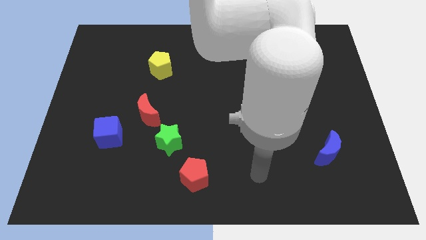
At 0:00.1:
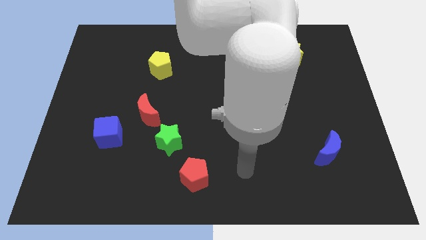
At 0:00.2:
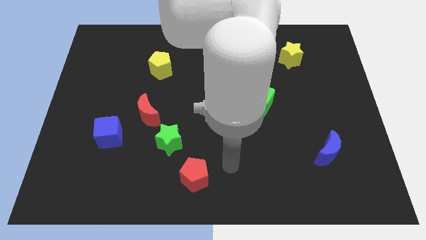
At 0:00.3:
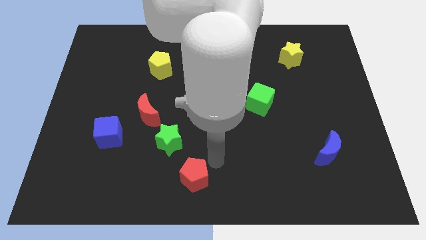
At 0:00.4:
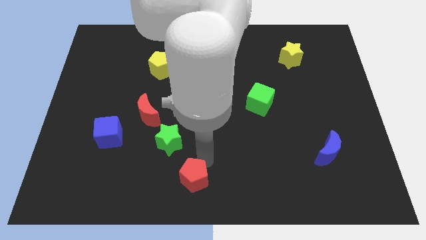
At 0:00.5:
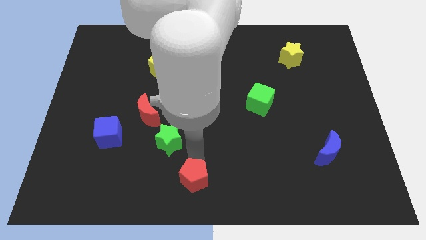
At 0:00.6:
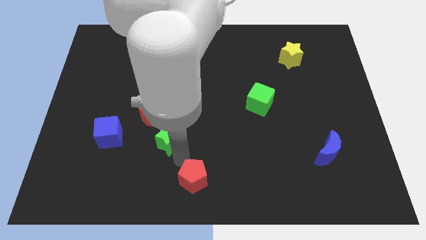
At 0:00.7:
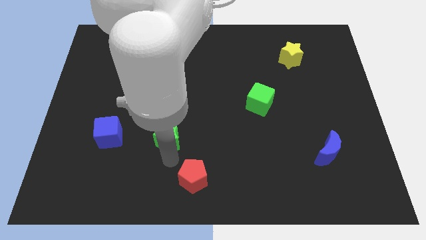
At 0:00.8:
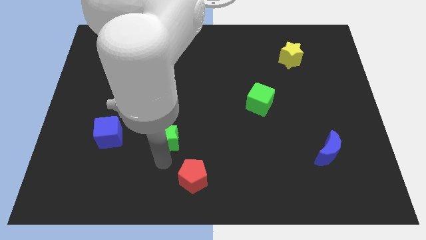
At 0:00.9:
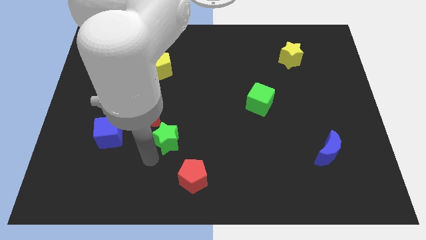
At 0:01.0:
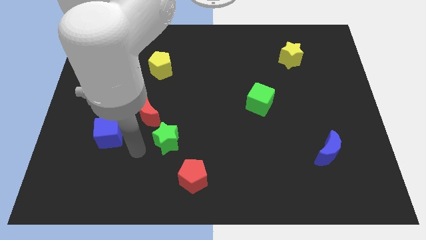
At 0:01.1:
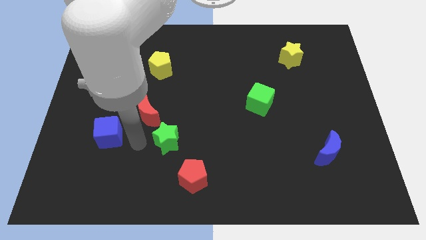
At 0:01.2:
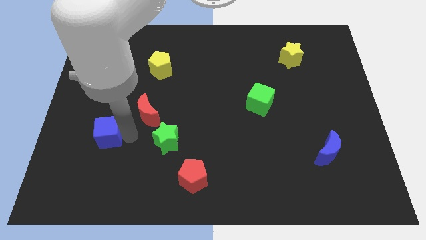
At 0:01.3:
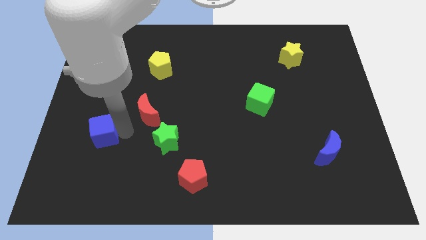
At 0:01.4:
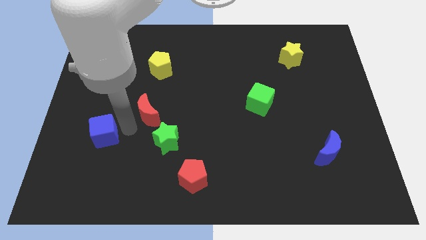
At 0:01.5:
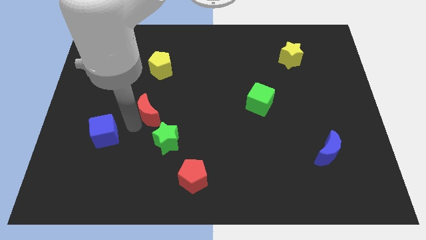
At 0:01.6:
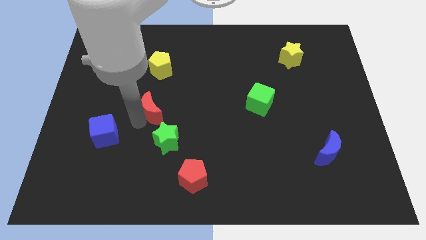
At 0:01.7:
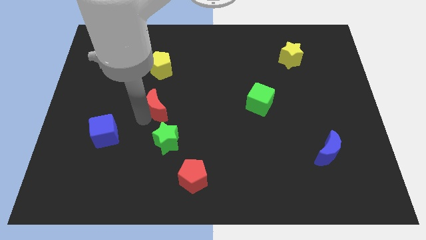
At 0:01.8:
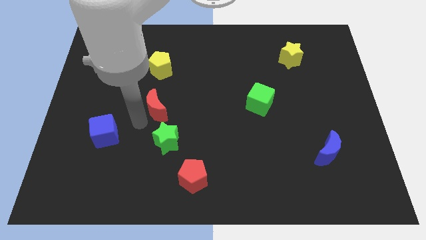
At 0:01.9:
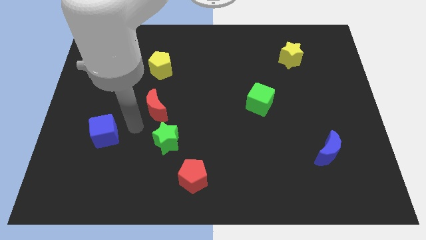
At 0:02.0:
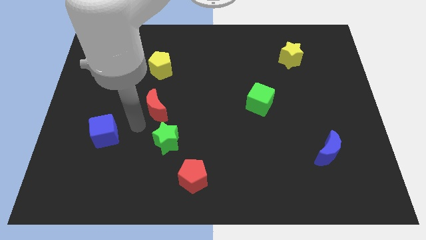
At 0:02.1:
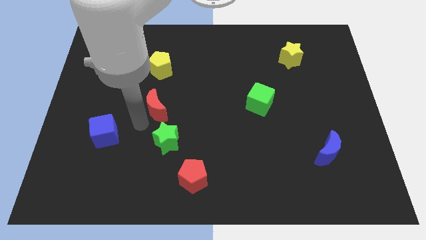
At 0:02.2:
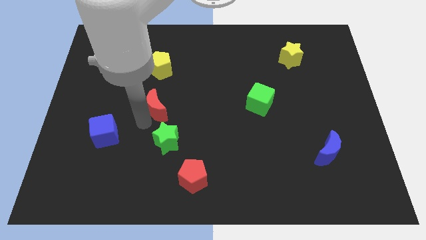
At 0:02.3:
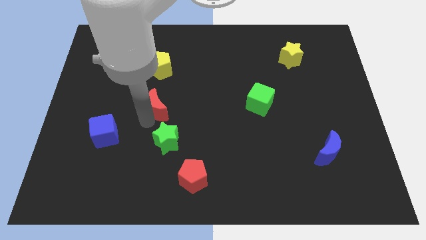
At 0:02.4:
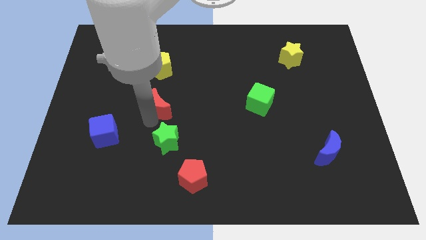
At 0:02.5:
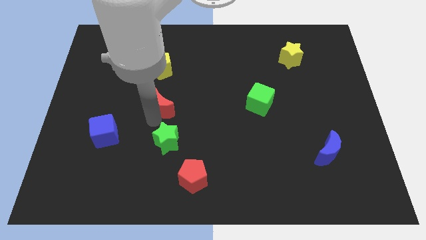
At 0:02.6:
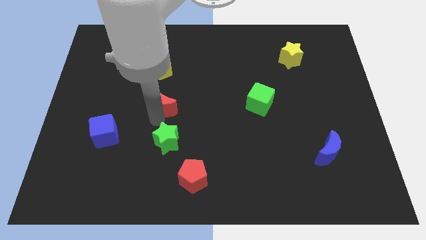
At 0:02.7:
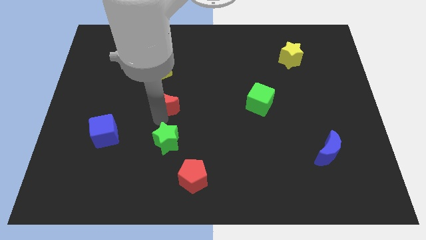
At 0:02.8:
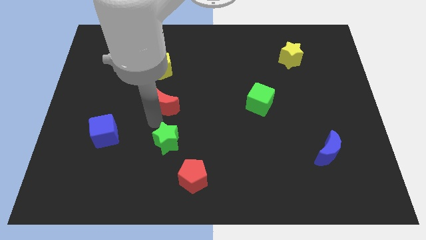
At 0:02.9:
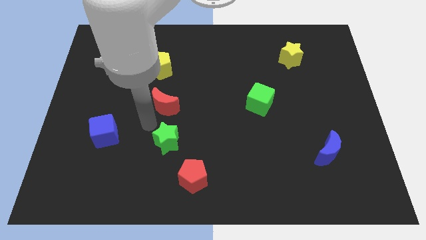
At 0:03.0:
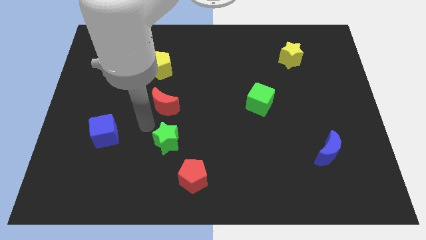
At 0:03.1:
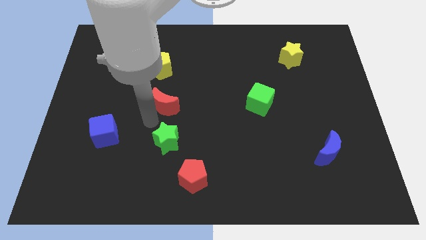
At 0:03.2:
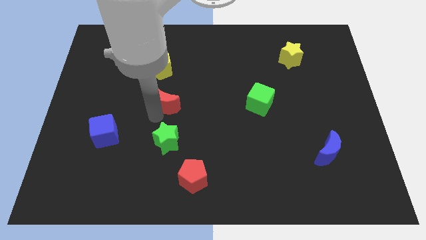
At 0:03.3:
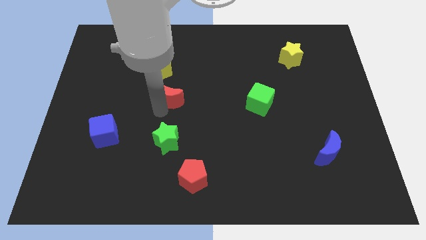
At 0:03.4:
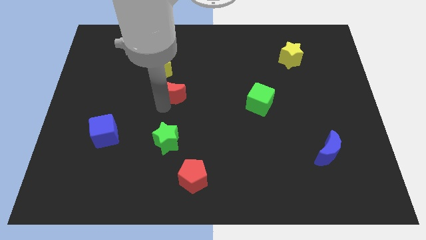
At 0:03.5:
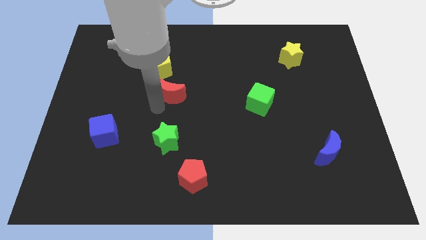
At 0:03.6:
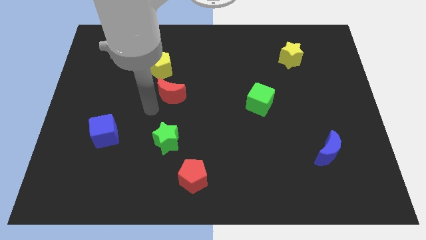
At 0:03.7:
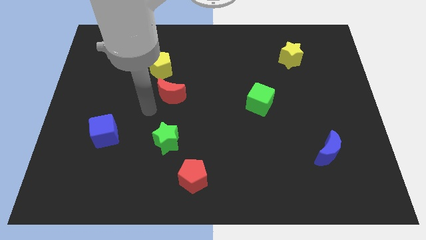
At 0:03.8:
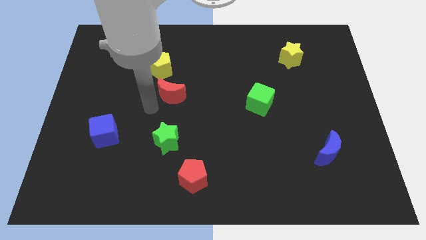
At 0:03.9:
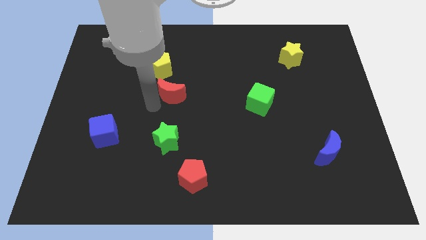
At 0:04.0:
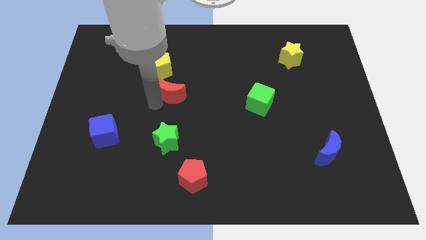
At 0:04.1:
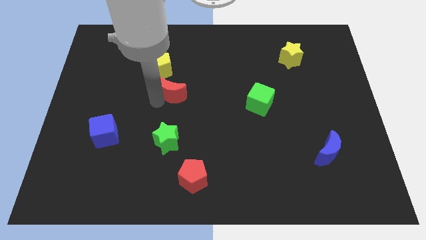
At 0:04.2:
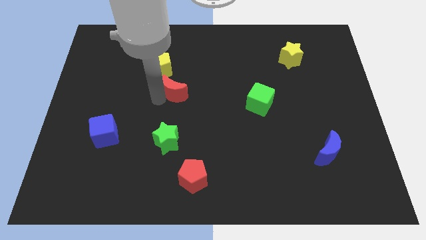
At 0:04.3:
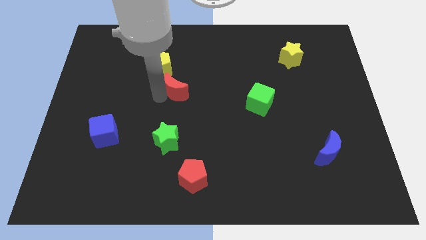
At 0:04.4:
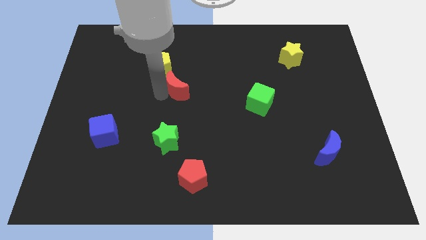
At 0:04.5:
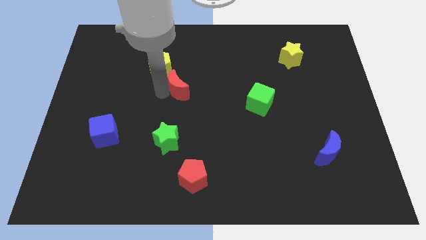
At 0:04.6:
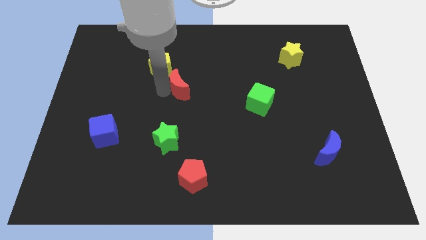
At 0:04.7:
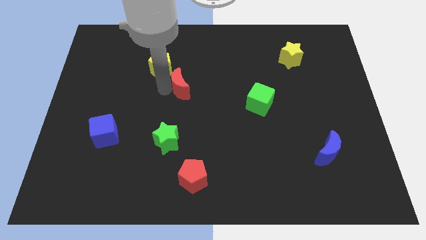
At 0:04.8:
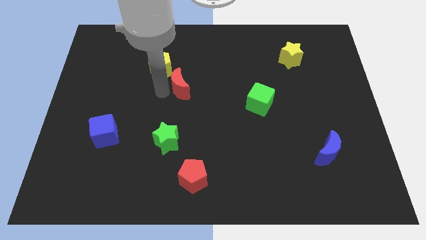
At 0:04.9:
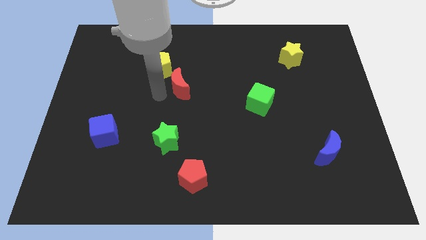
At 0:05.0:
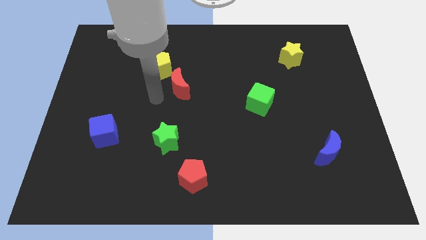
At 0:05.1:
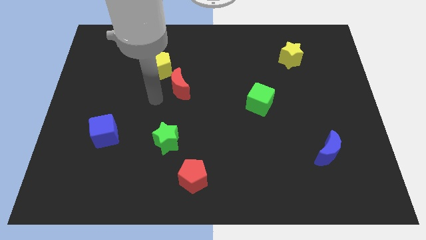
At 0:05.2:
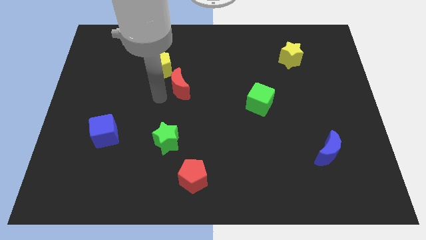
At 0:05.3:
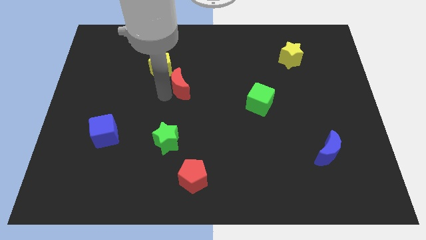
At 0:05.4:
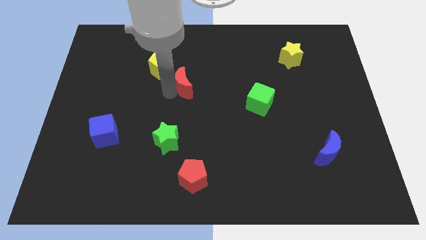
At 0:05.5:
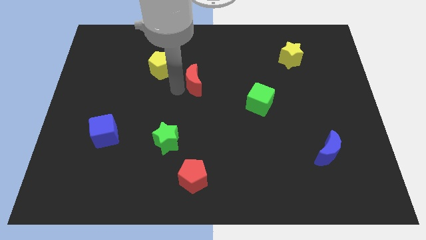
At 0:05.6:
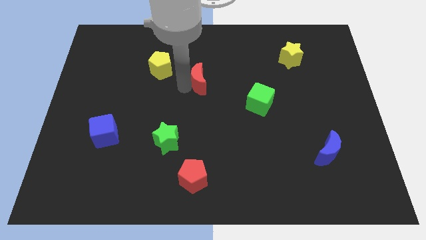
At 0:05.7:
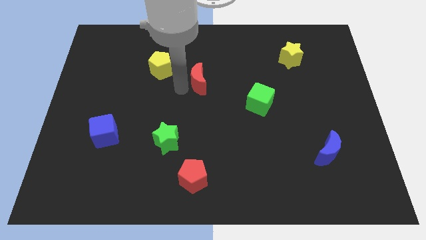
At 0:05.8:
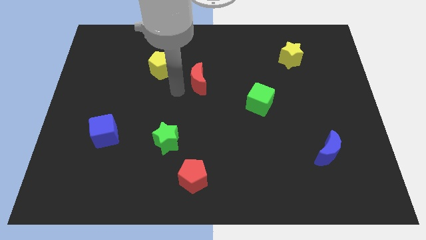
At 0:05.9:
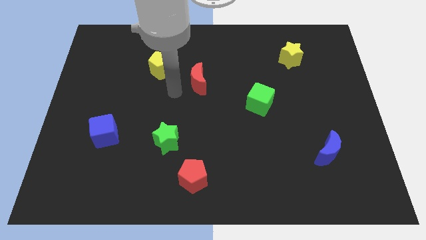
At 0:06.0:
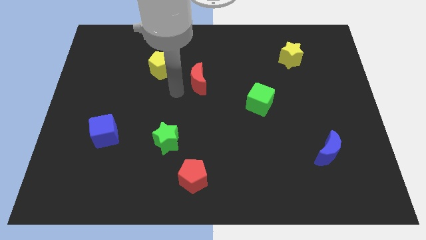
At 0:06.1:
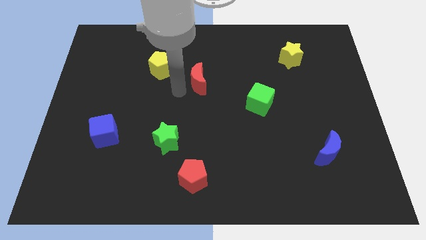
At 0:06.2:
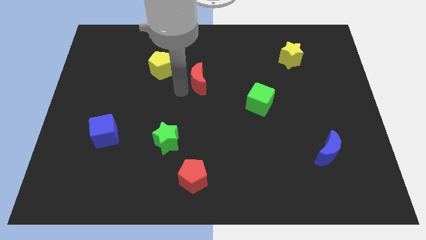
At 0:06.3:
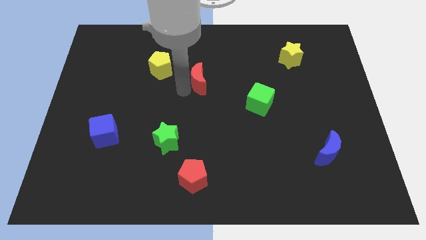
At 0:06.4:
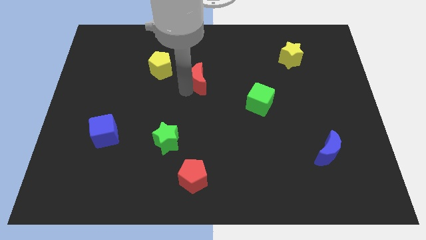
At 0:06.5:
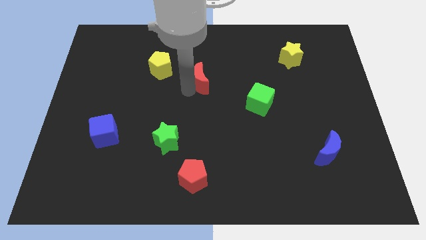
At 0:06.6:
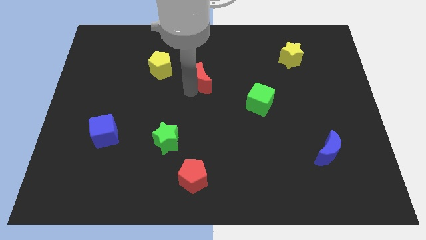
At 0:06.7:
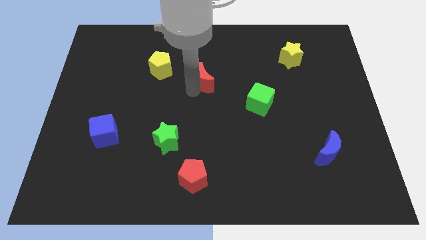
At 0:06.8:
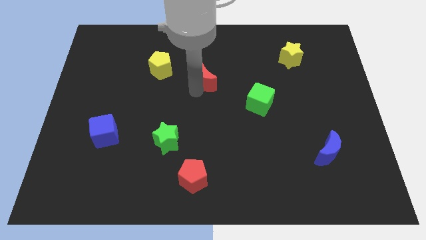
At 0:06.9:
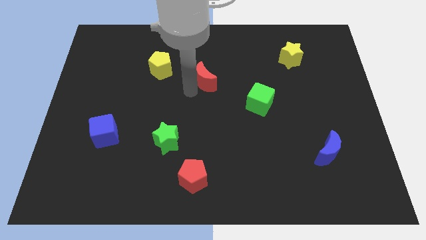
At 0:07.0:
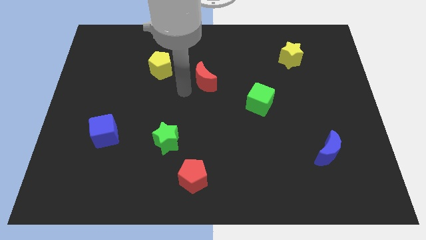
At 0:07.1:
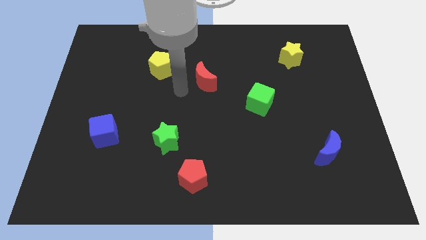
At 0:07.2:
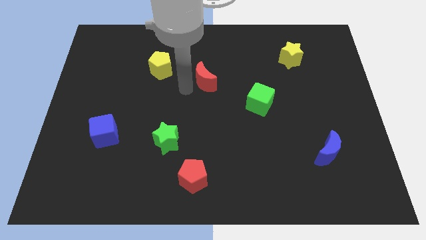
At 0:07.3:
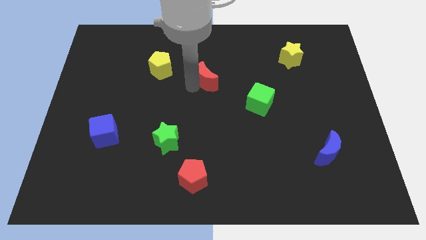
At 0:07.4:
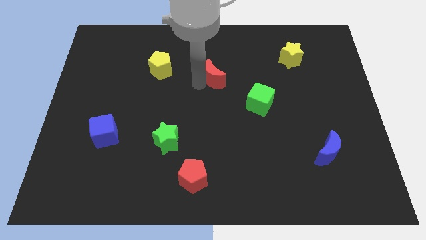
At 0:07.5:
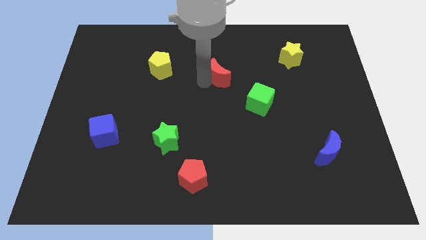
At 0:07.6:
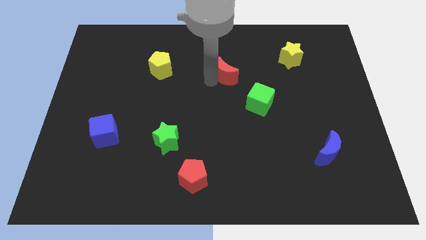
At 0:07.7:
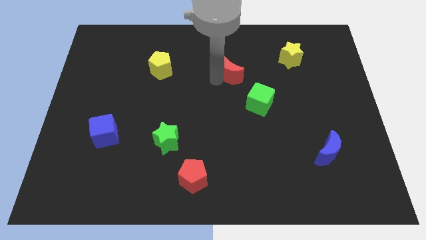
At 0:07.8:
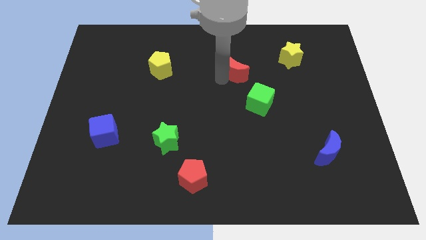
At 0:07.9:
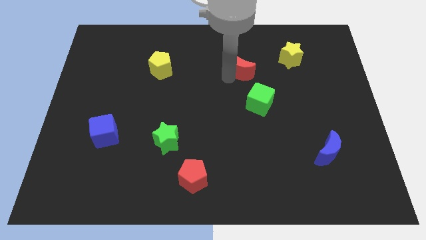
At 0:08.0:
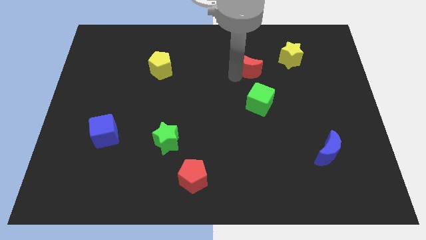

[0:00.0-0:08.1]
slide the red moon just left of the yellow star
